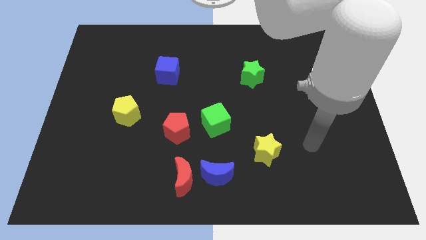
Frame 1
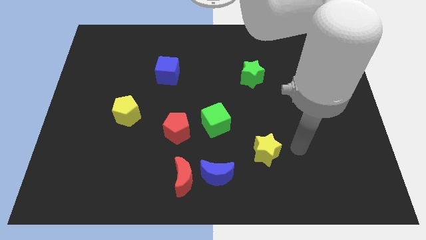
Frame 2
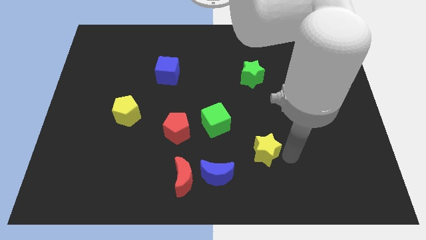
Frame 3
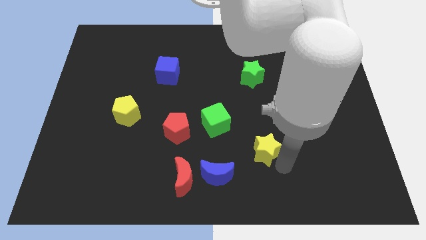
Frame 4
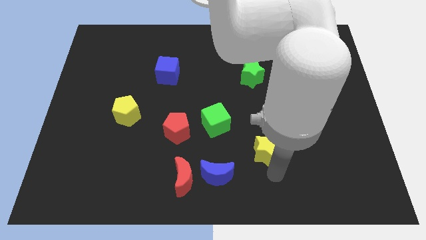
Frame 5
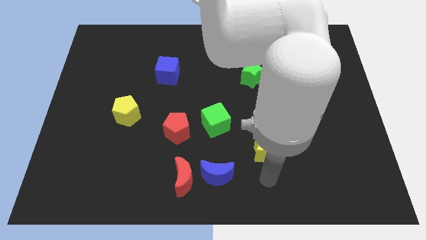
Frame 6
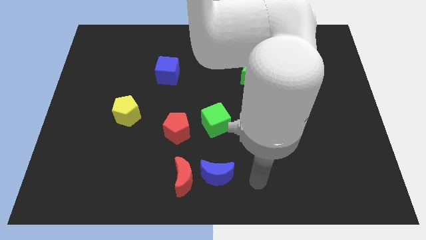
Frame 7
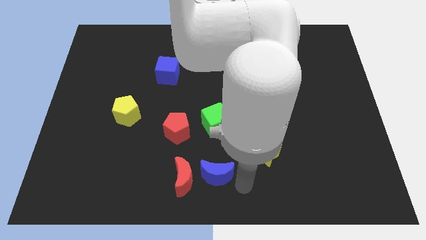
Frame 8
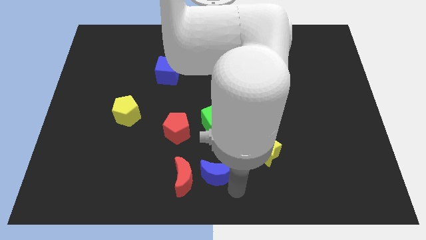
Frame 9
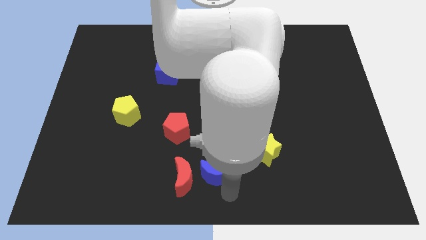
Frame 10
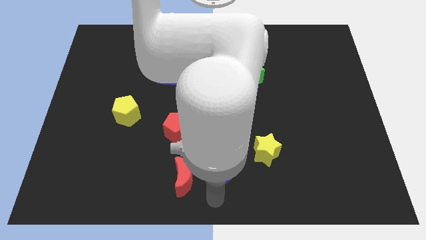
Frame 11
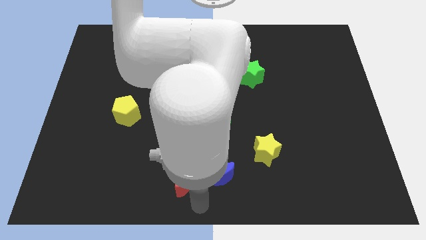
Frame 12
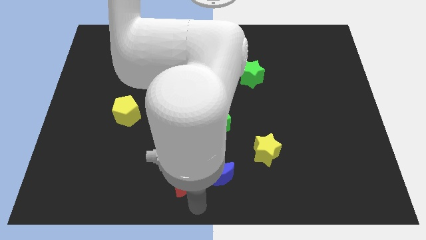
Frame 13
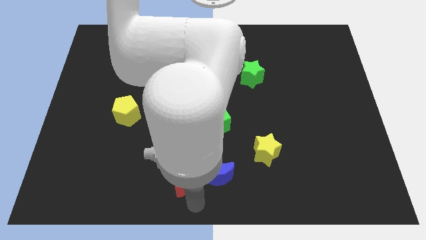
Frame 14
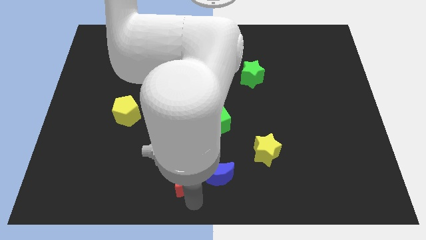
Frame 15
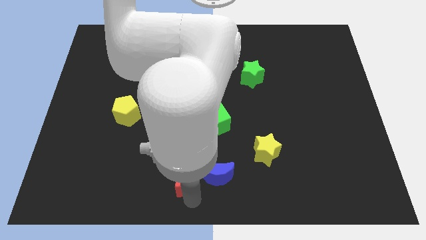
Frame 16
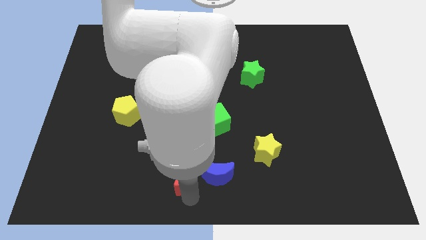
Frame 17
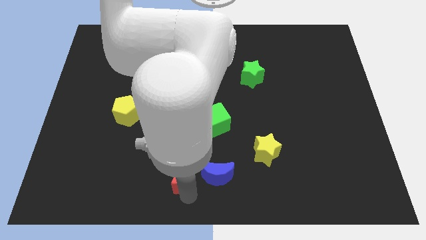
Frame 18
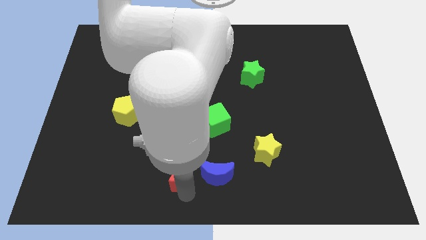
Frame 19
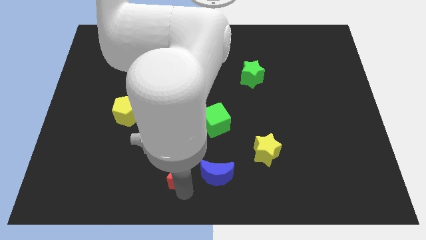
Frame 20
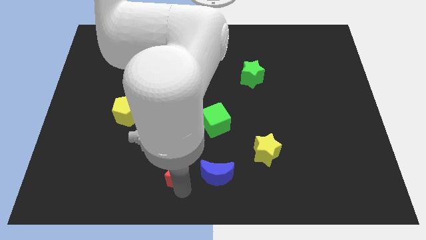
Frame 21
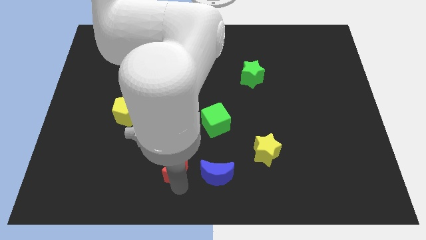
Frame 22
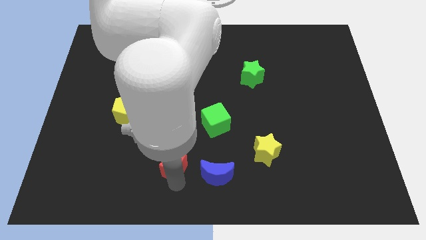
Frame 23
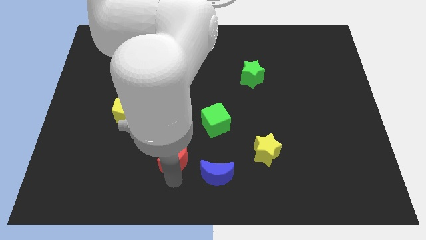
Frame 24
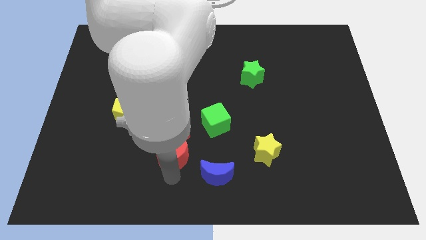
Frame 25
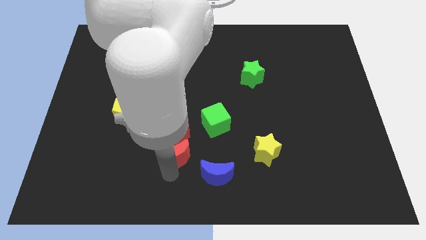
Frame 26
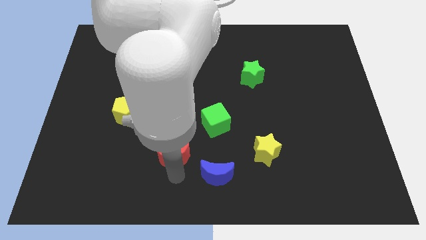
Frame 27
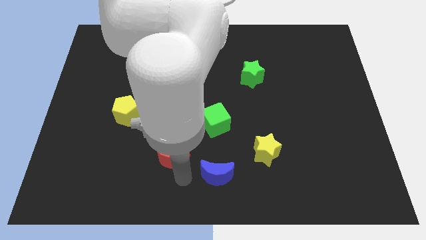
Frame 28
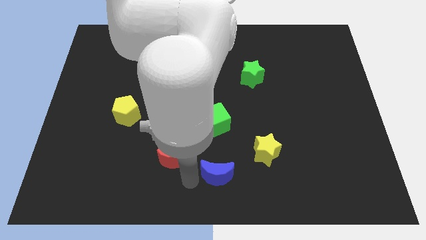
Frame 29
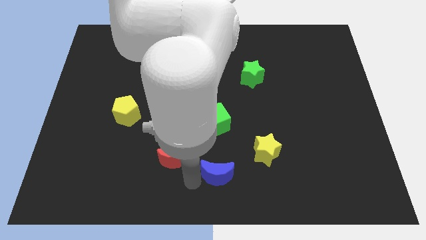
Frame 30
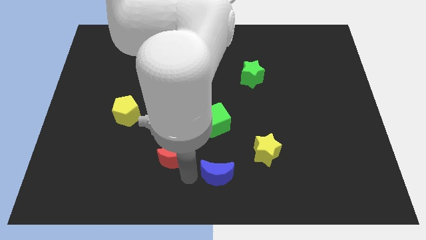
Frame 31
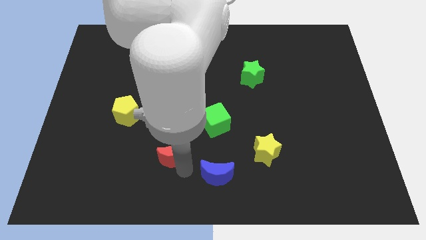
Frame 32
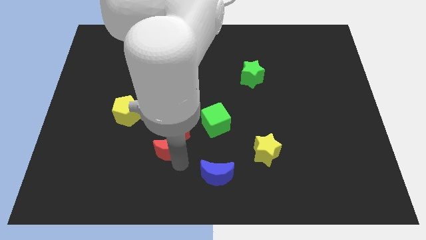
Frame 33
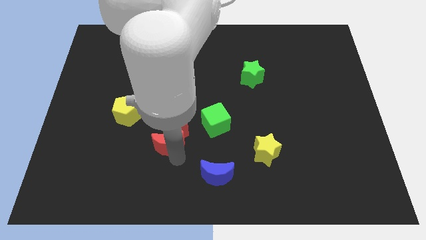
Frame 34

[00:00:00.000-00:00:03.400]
slide the red moon up somewhat

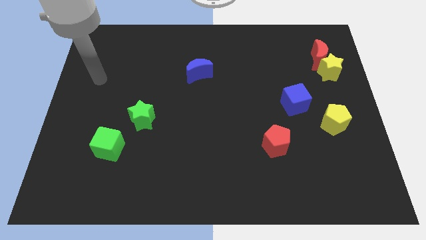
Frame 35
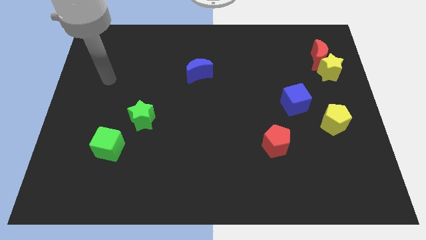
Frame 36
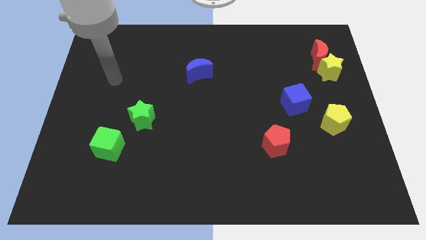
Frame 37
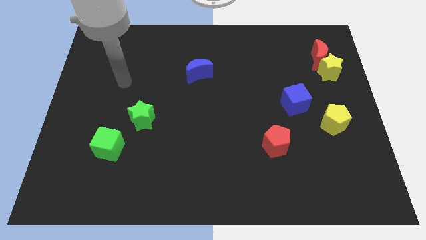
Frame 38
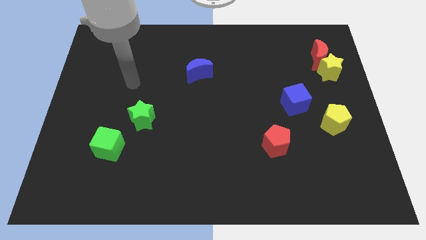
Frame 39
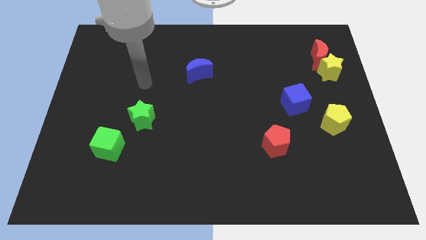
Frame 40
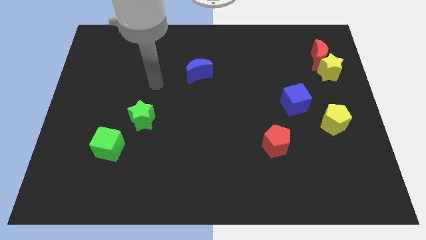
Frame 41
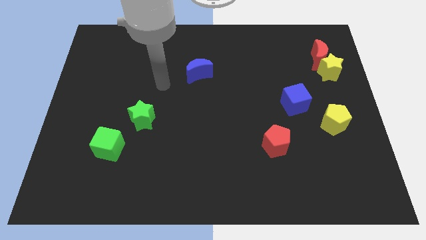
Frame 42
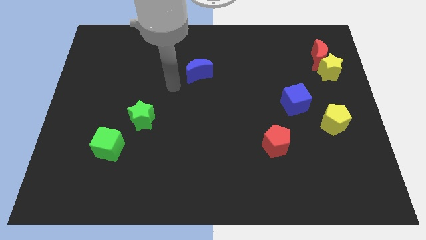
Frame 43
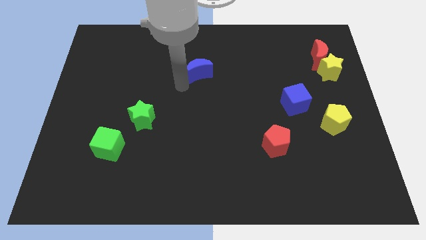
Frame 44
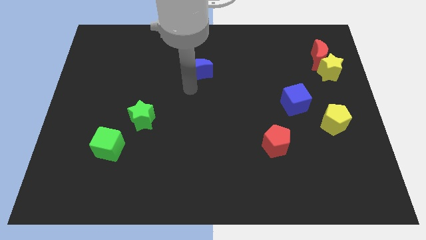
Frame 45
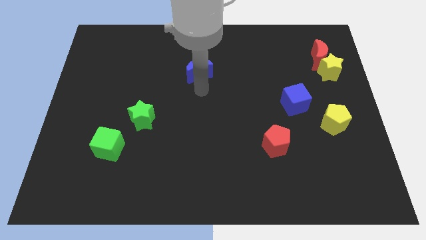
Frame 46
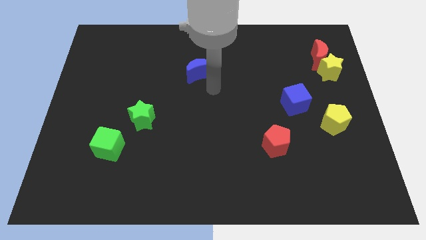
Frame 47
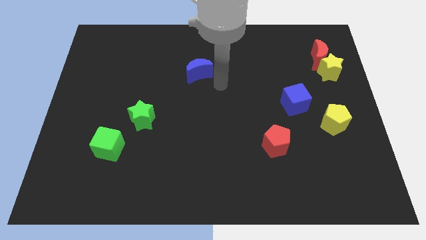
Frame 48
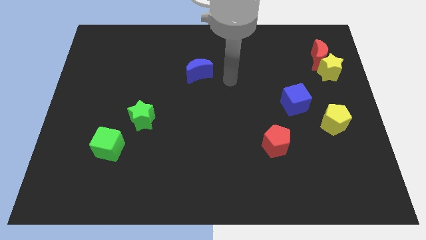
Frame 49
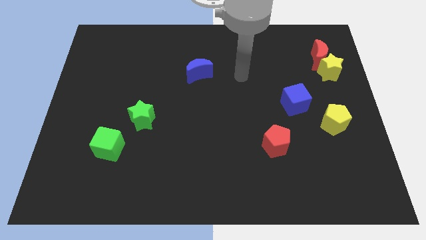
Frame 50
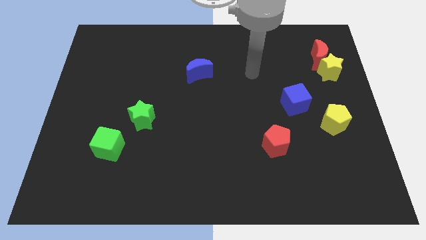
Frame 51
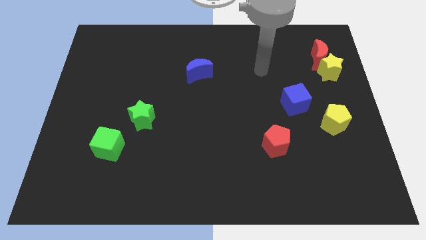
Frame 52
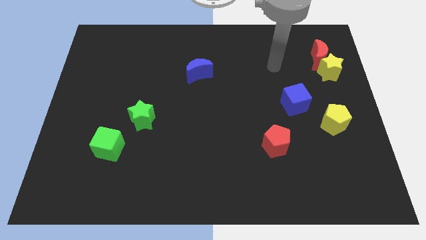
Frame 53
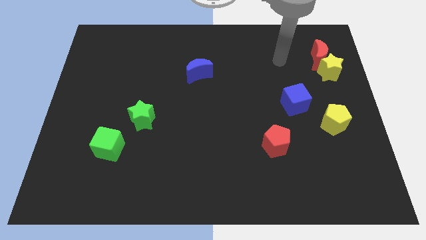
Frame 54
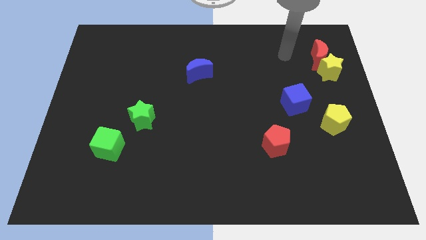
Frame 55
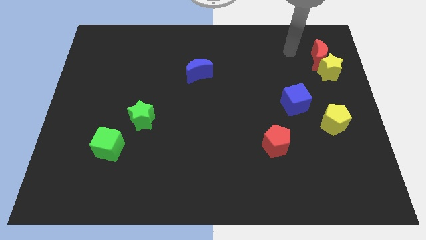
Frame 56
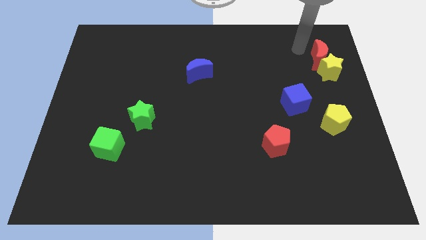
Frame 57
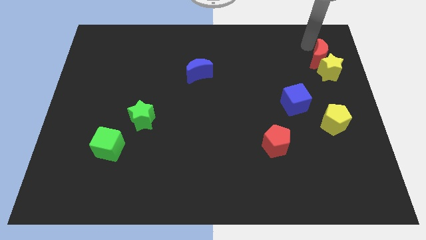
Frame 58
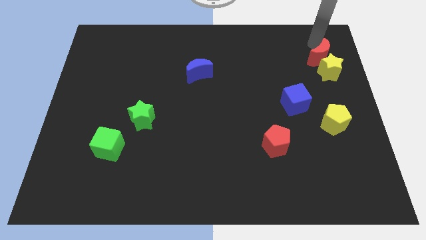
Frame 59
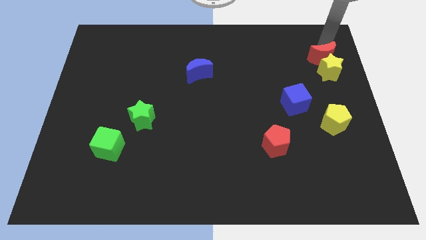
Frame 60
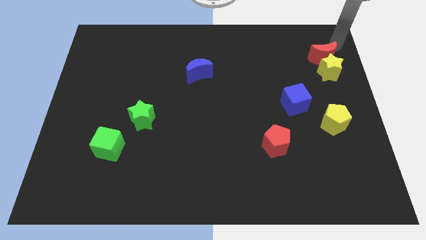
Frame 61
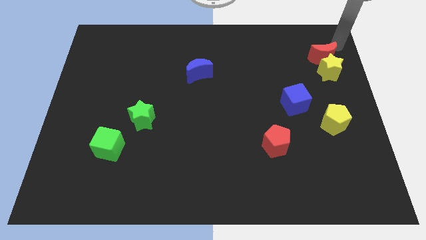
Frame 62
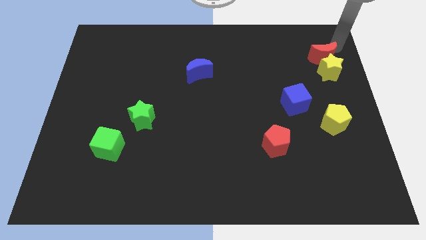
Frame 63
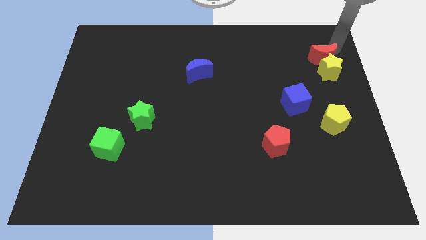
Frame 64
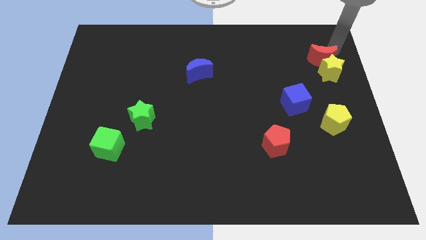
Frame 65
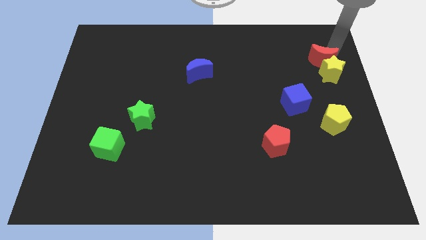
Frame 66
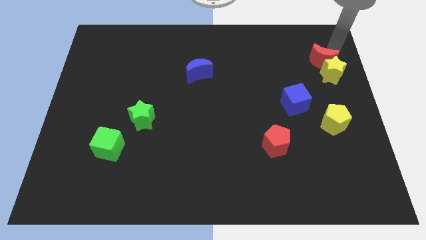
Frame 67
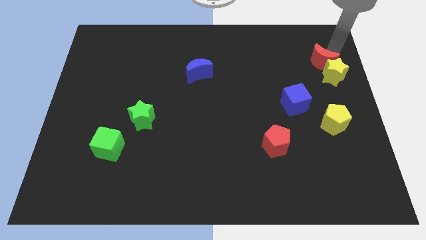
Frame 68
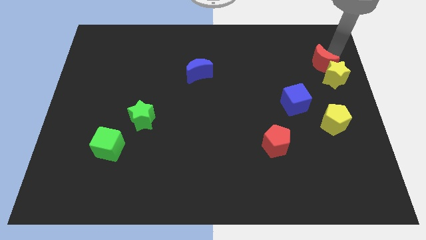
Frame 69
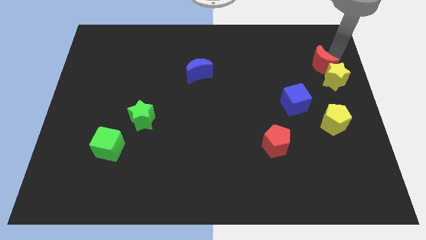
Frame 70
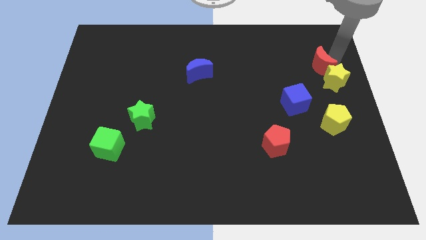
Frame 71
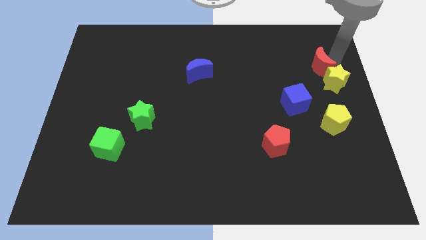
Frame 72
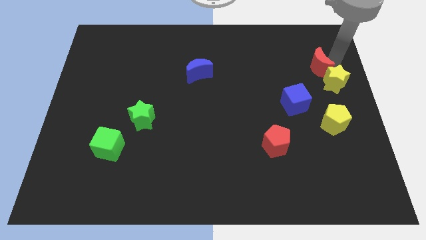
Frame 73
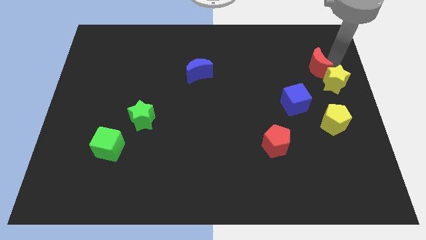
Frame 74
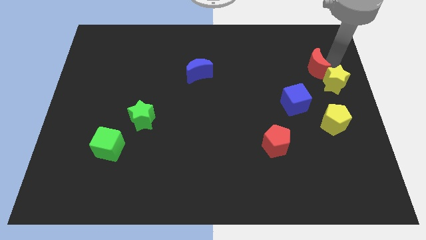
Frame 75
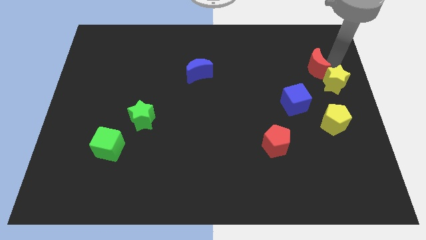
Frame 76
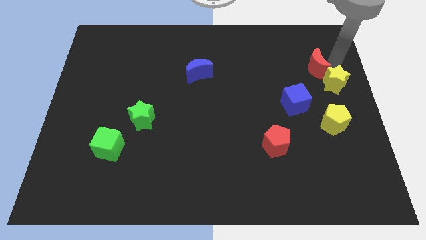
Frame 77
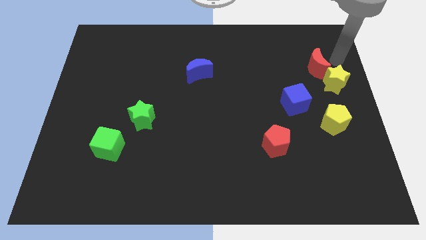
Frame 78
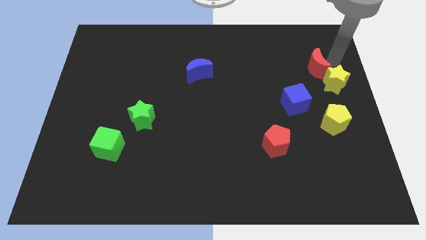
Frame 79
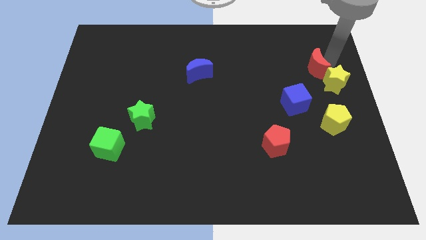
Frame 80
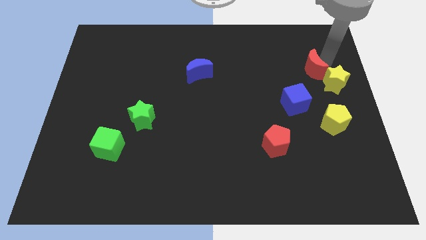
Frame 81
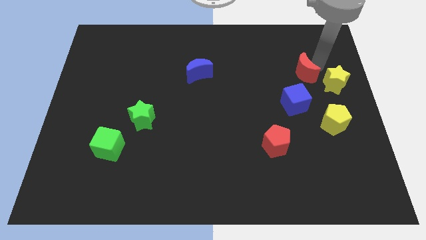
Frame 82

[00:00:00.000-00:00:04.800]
slightly slide the red moon down and then to the left
